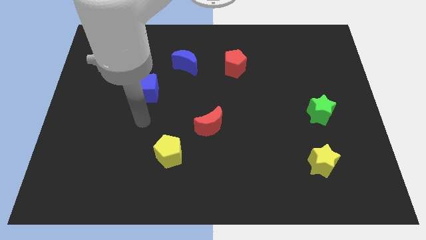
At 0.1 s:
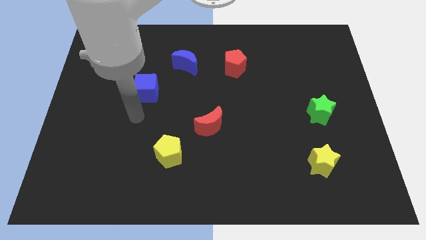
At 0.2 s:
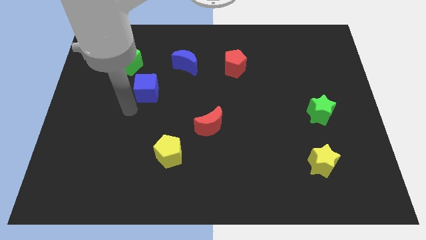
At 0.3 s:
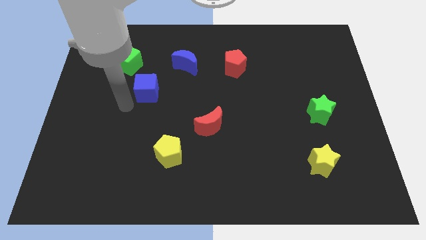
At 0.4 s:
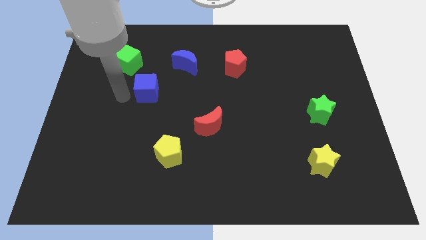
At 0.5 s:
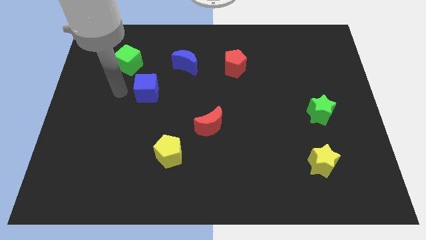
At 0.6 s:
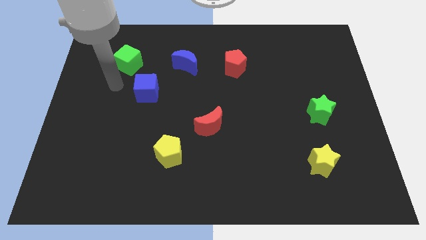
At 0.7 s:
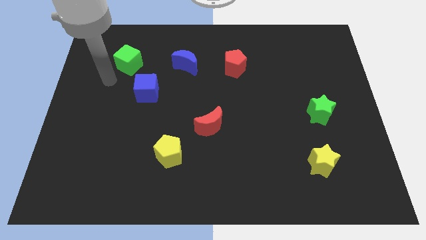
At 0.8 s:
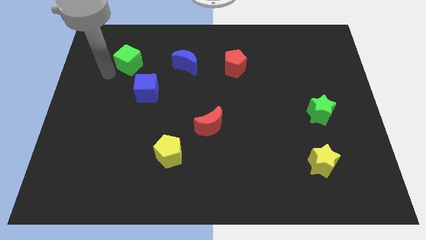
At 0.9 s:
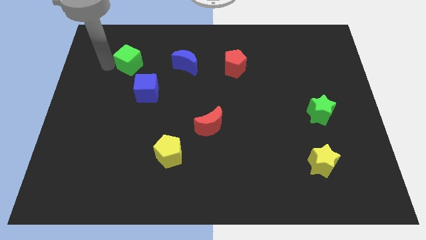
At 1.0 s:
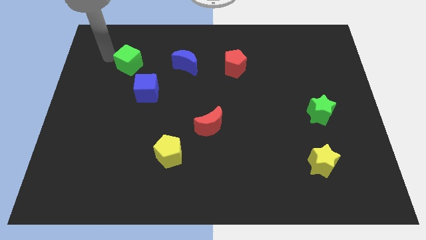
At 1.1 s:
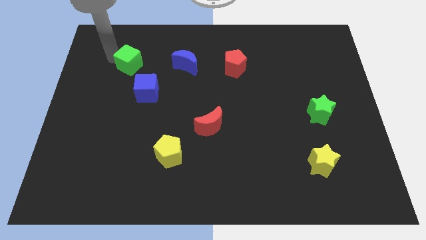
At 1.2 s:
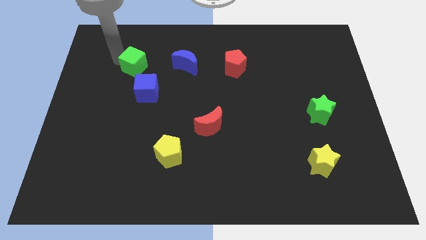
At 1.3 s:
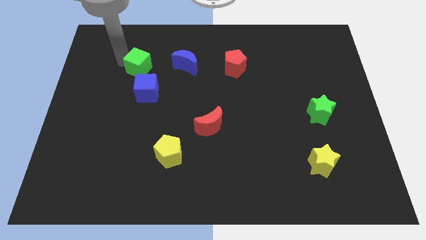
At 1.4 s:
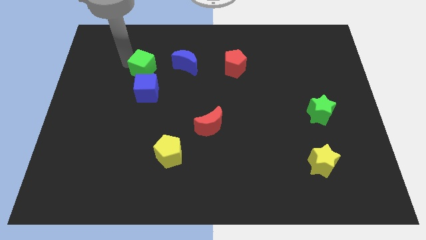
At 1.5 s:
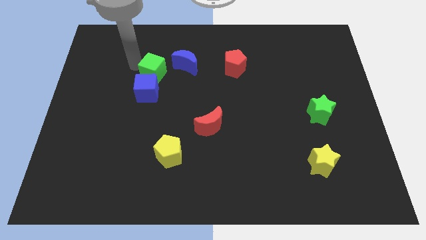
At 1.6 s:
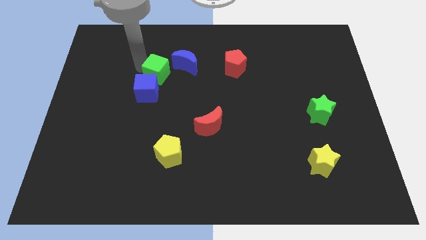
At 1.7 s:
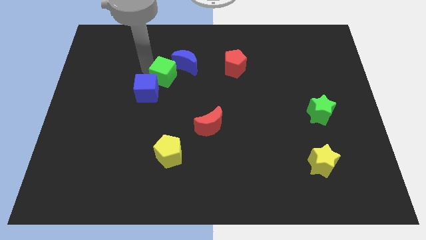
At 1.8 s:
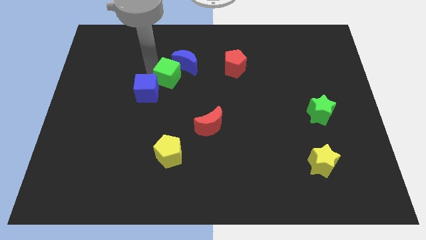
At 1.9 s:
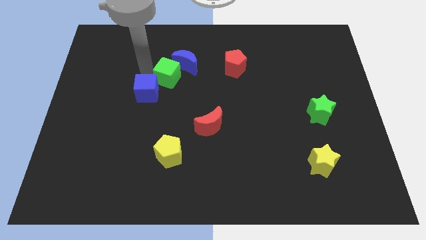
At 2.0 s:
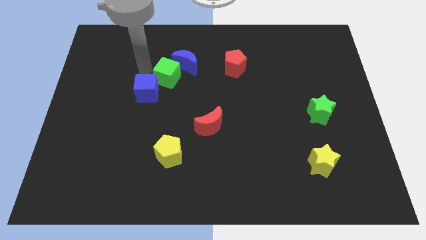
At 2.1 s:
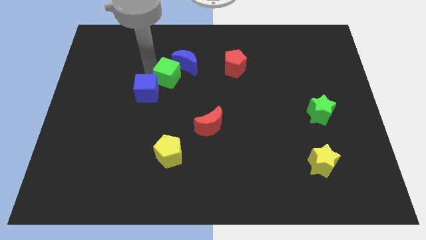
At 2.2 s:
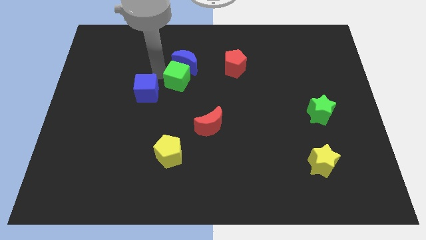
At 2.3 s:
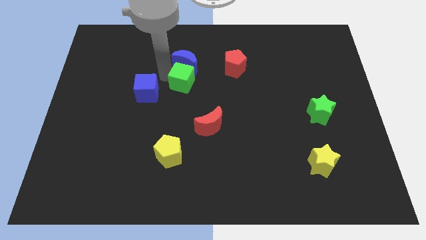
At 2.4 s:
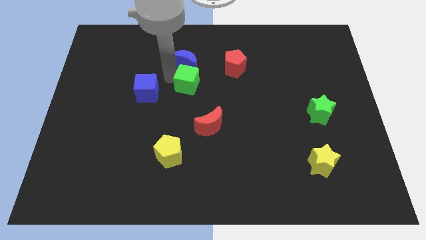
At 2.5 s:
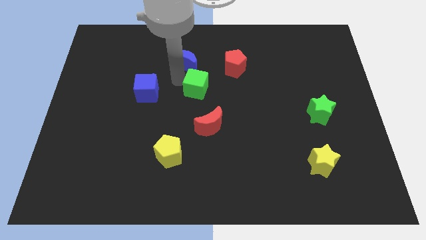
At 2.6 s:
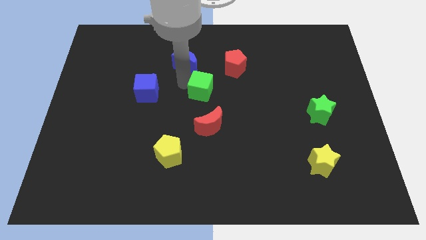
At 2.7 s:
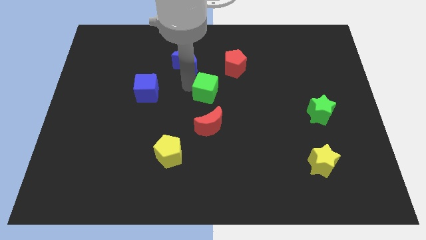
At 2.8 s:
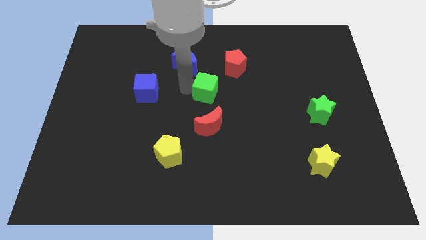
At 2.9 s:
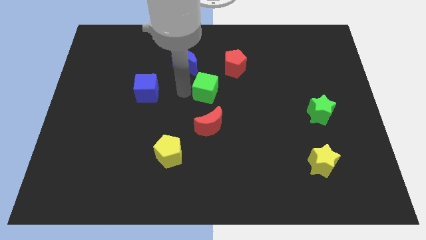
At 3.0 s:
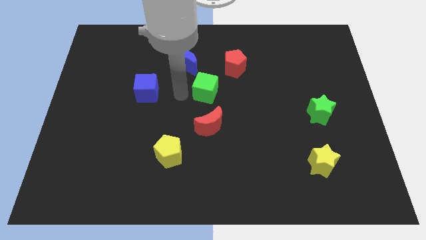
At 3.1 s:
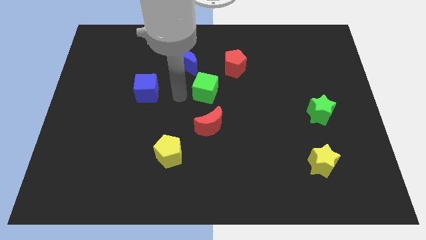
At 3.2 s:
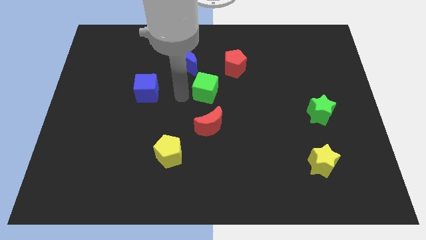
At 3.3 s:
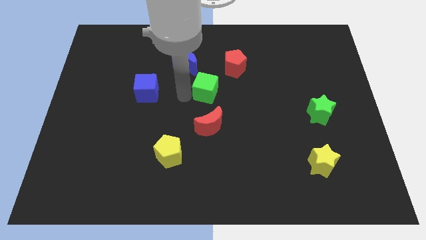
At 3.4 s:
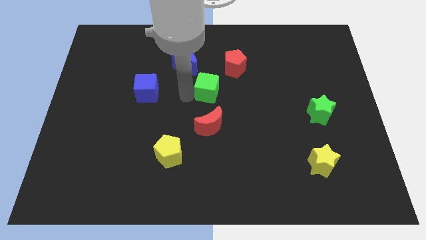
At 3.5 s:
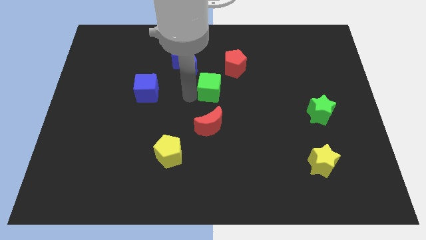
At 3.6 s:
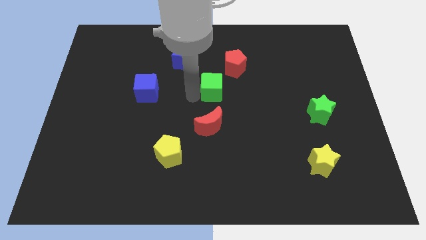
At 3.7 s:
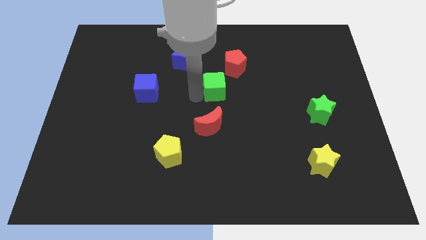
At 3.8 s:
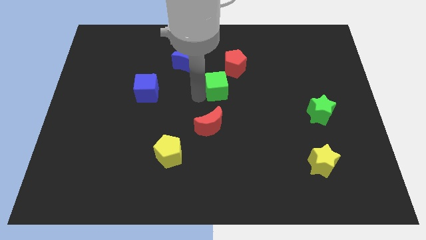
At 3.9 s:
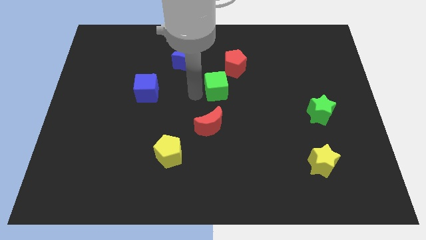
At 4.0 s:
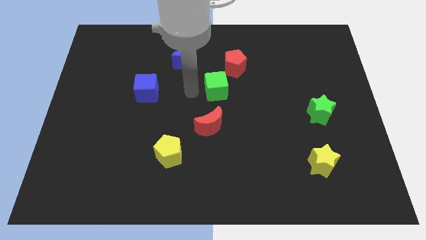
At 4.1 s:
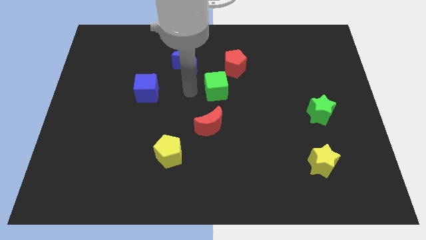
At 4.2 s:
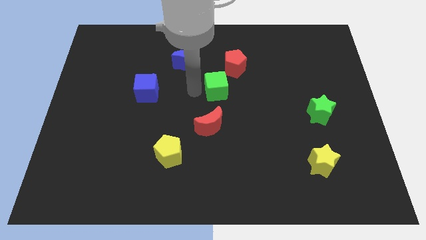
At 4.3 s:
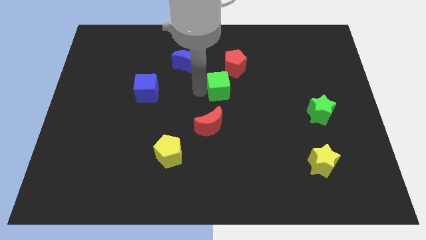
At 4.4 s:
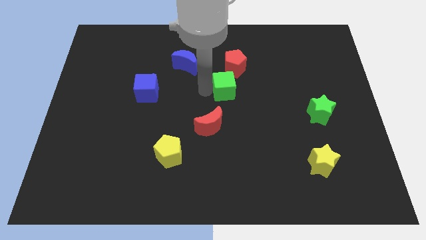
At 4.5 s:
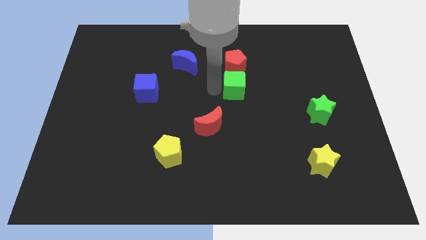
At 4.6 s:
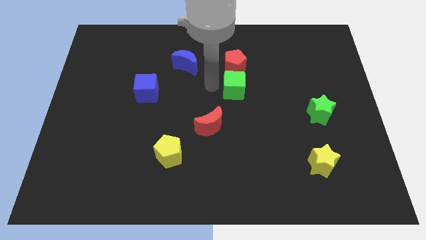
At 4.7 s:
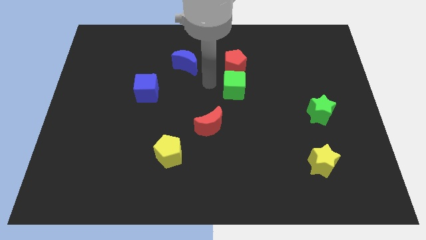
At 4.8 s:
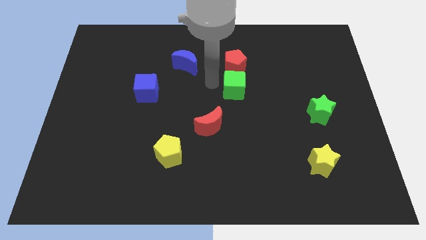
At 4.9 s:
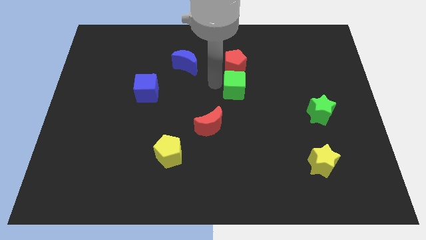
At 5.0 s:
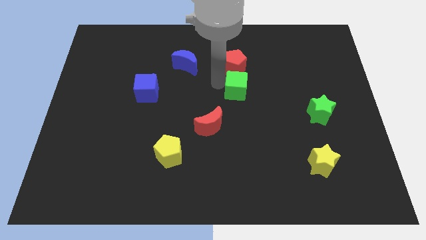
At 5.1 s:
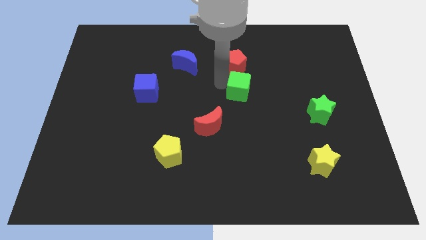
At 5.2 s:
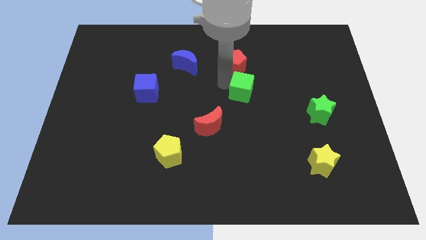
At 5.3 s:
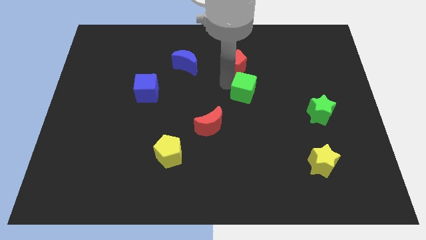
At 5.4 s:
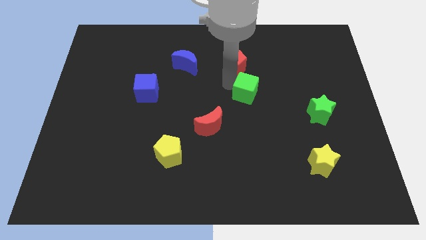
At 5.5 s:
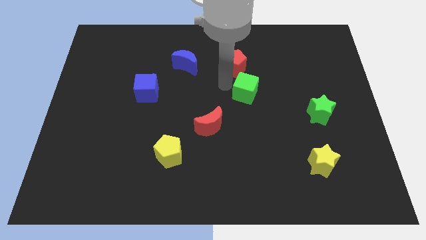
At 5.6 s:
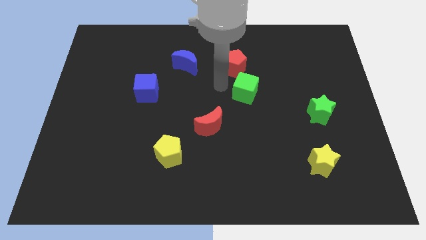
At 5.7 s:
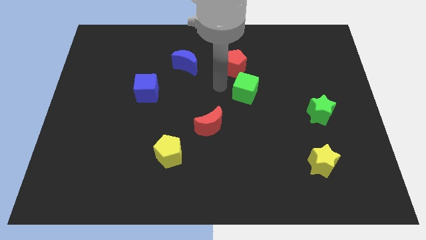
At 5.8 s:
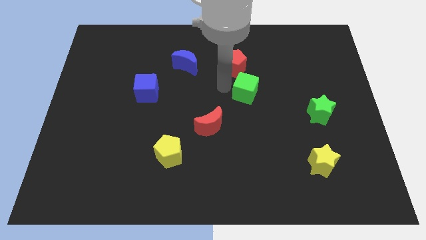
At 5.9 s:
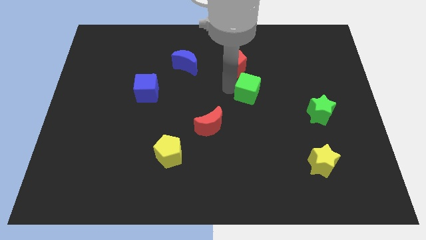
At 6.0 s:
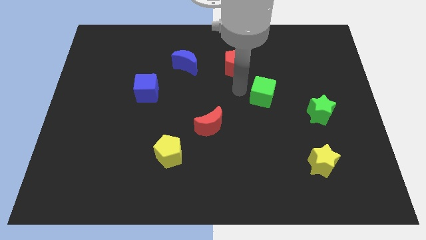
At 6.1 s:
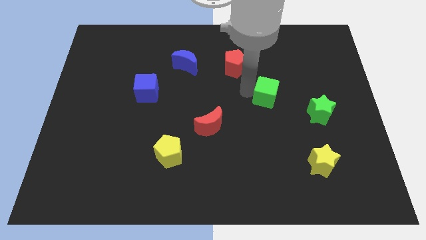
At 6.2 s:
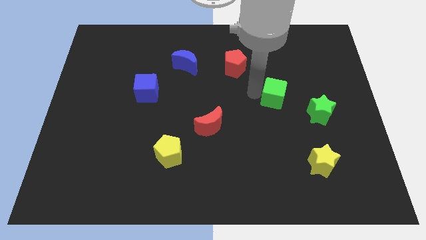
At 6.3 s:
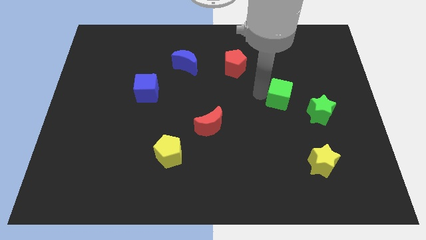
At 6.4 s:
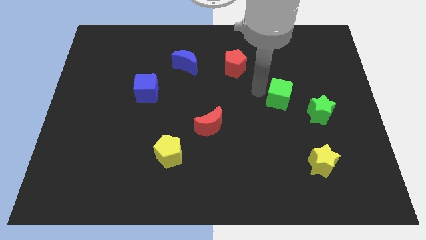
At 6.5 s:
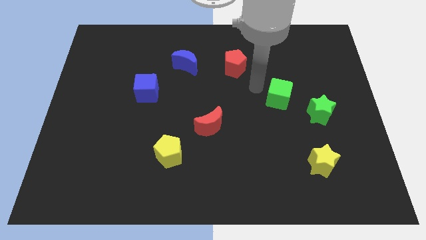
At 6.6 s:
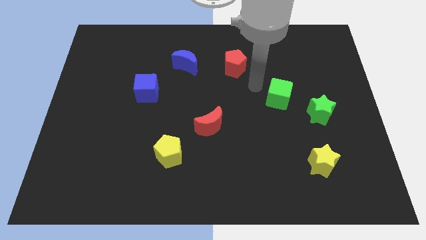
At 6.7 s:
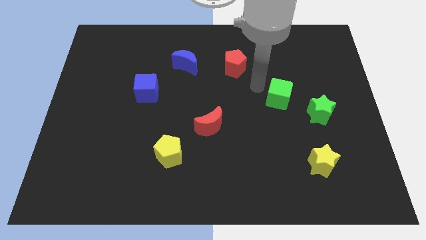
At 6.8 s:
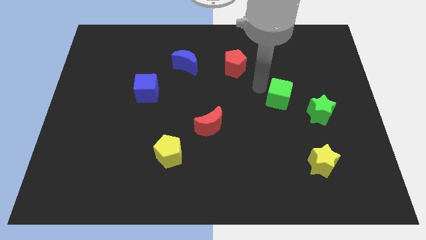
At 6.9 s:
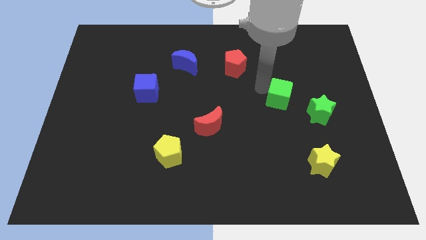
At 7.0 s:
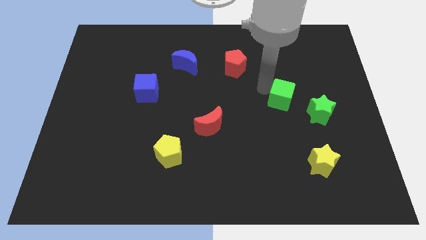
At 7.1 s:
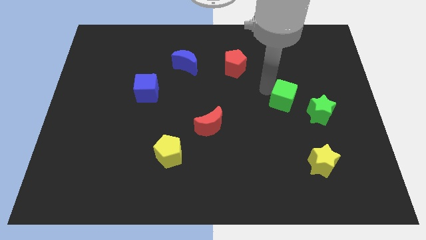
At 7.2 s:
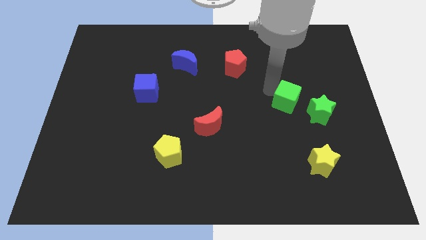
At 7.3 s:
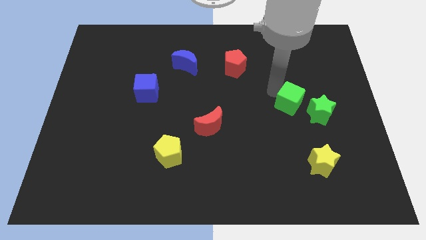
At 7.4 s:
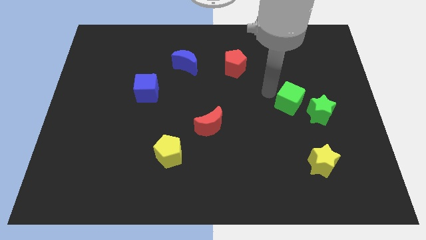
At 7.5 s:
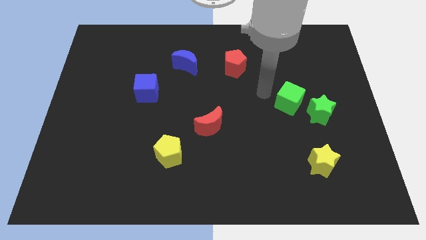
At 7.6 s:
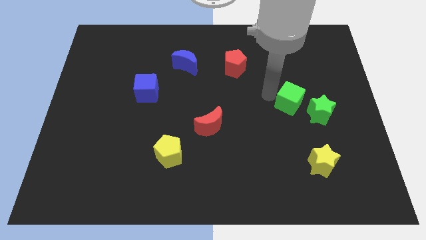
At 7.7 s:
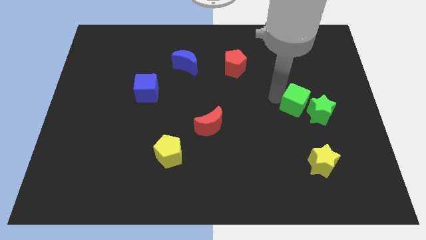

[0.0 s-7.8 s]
move the green cube towards the green star

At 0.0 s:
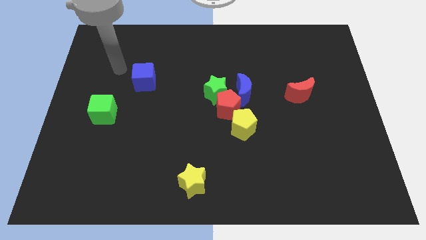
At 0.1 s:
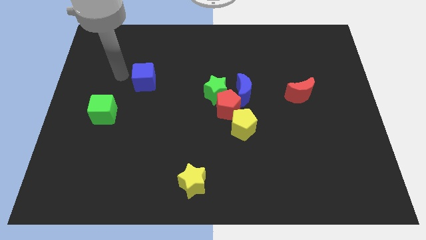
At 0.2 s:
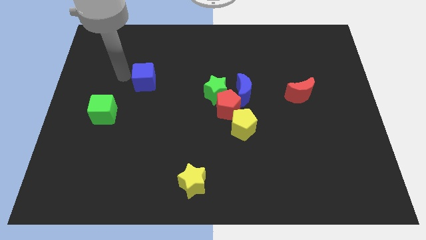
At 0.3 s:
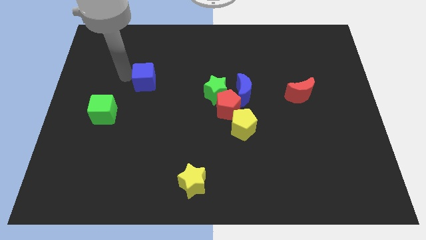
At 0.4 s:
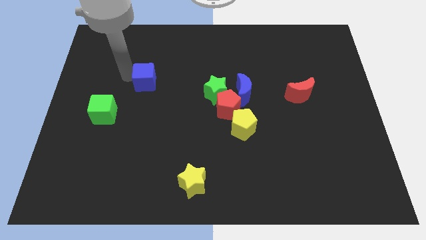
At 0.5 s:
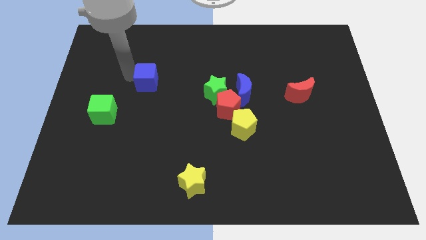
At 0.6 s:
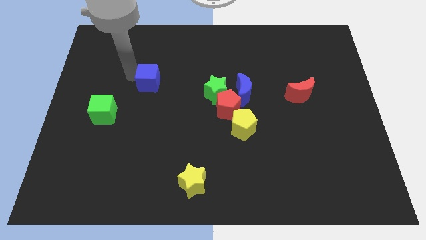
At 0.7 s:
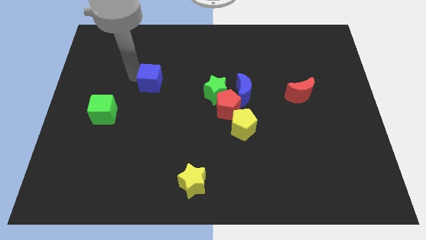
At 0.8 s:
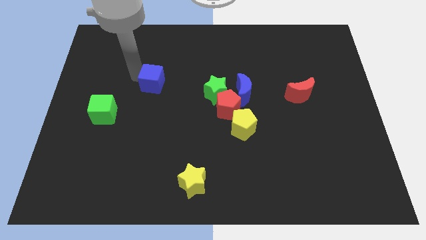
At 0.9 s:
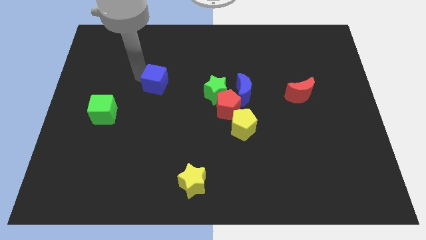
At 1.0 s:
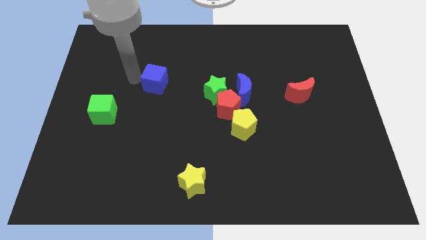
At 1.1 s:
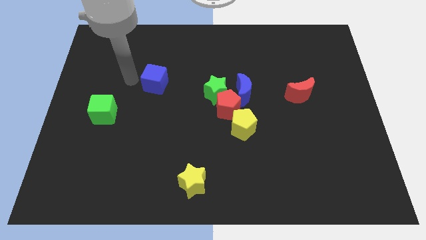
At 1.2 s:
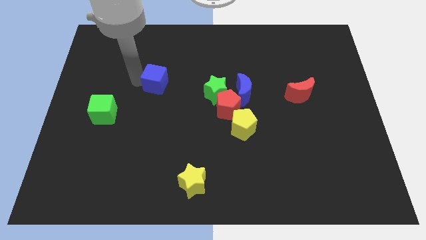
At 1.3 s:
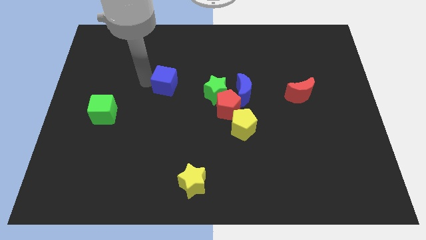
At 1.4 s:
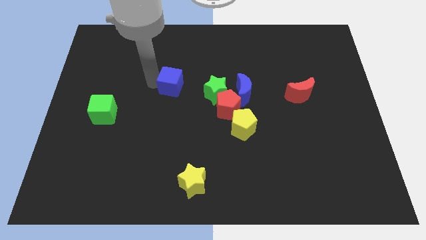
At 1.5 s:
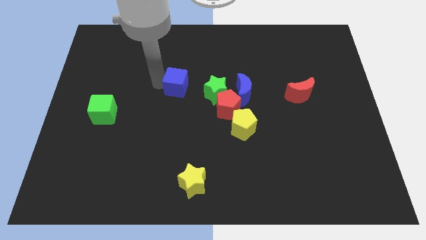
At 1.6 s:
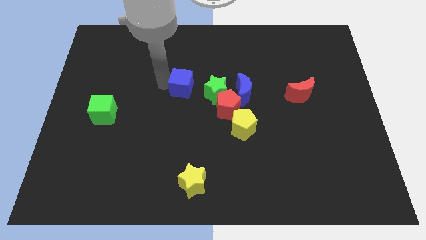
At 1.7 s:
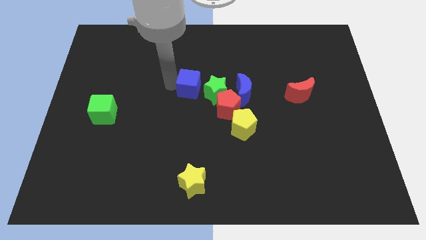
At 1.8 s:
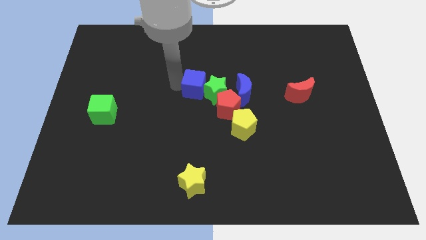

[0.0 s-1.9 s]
slide the blue cube to the green star
